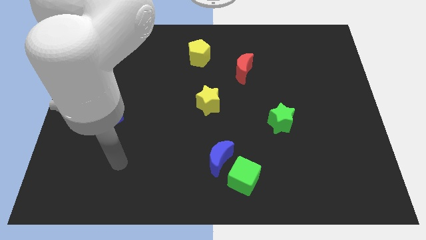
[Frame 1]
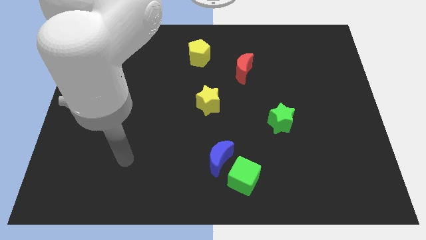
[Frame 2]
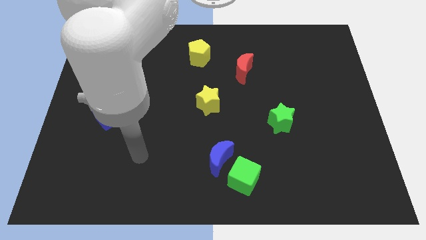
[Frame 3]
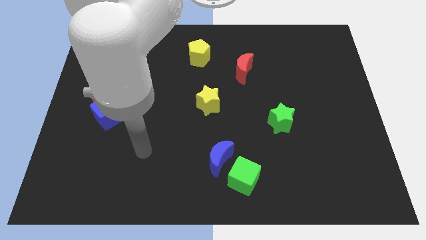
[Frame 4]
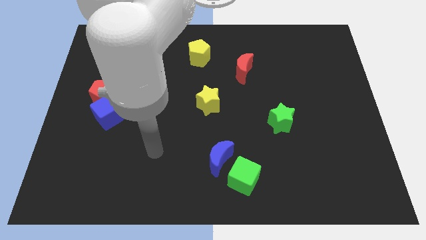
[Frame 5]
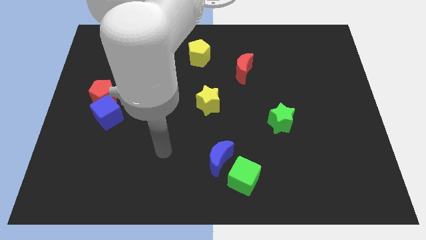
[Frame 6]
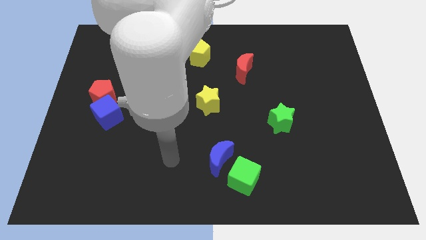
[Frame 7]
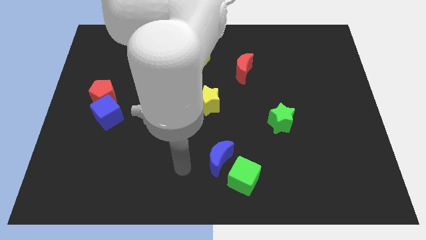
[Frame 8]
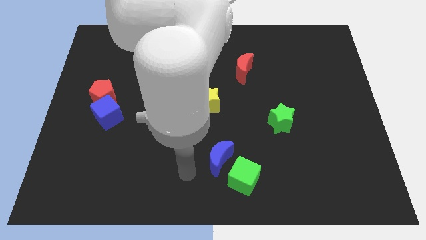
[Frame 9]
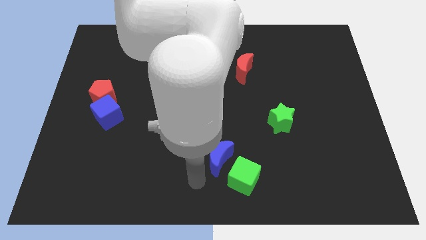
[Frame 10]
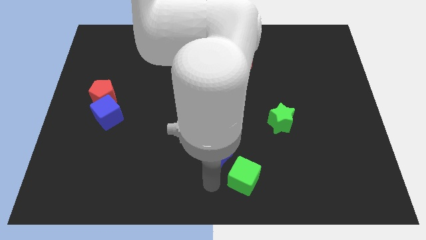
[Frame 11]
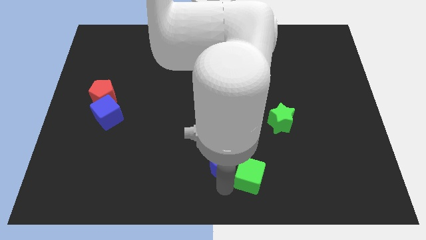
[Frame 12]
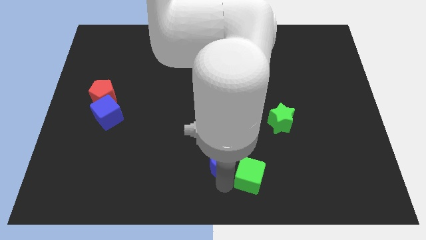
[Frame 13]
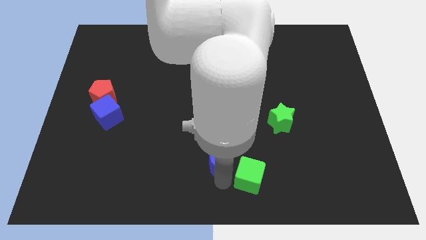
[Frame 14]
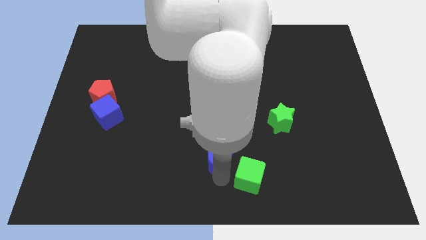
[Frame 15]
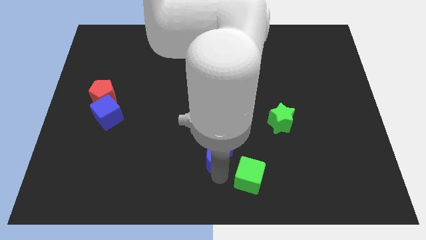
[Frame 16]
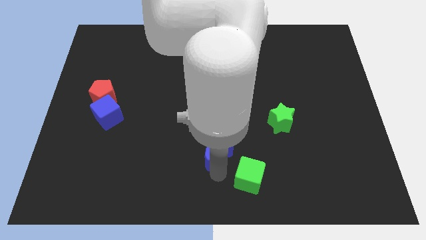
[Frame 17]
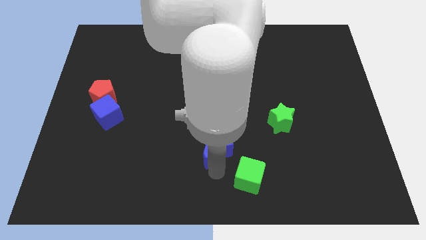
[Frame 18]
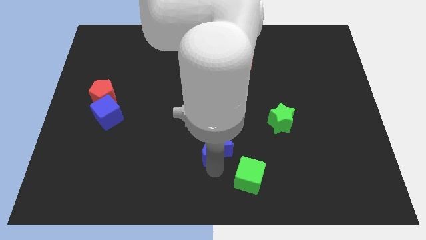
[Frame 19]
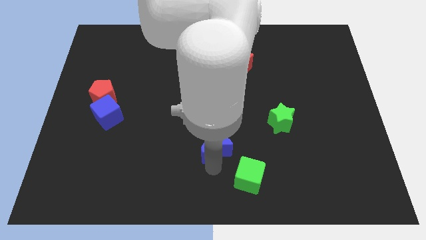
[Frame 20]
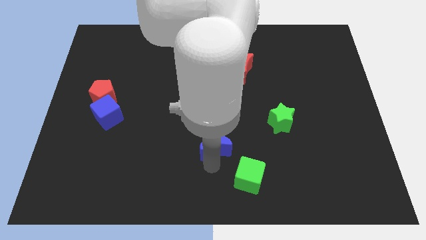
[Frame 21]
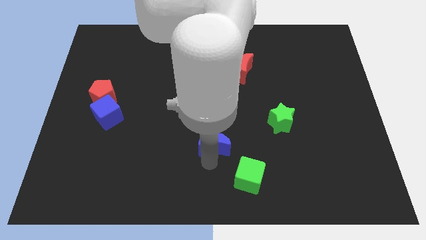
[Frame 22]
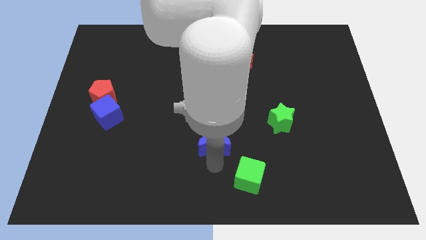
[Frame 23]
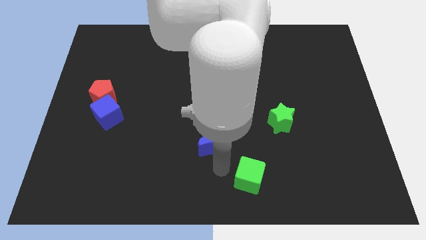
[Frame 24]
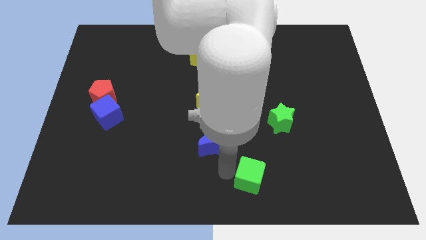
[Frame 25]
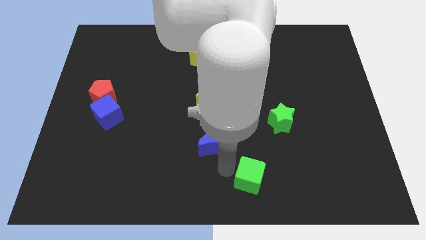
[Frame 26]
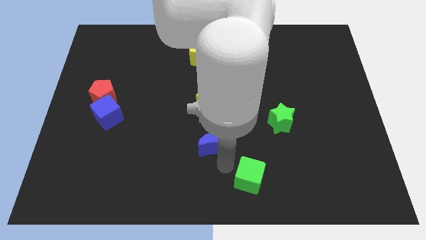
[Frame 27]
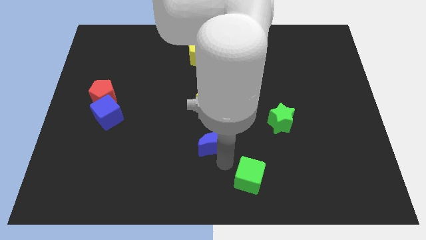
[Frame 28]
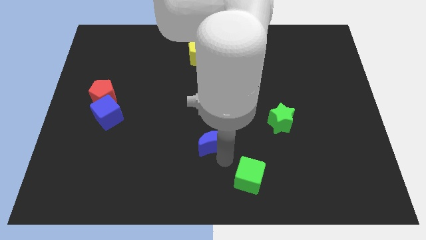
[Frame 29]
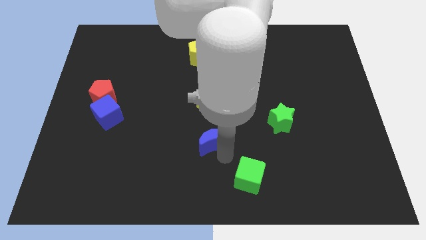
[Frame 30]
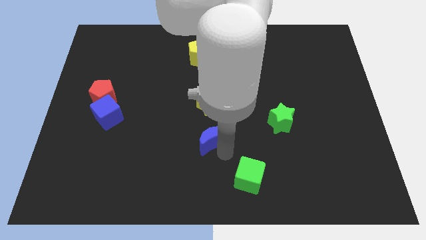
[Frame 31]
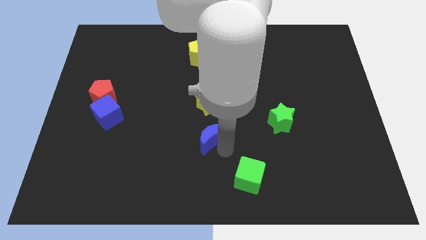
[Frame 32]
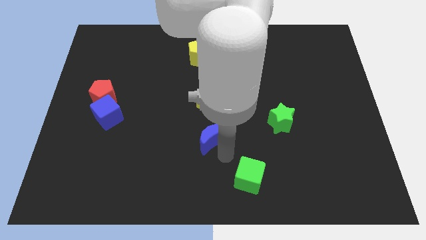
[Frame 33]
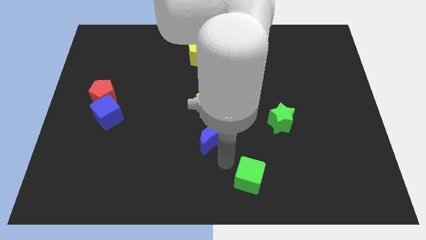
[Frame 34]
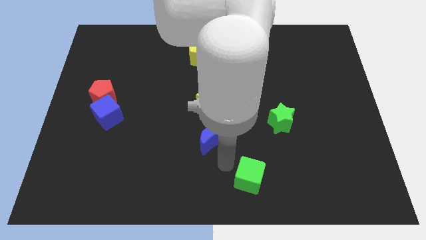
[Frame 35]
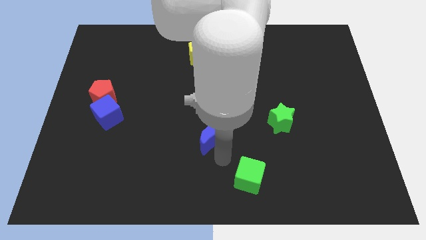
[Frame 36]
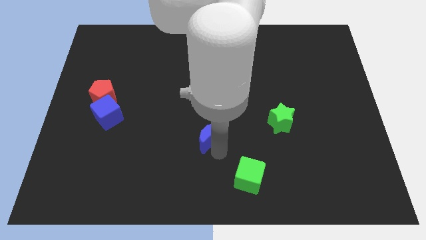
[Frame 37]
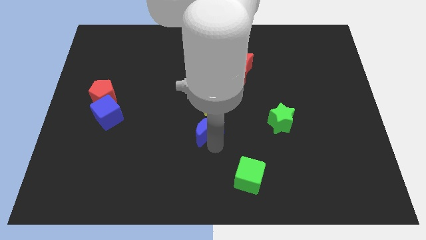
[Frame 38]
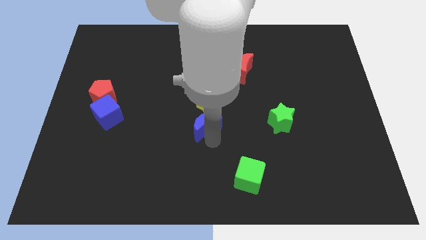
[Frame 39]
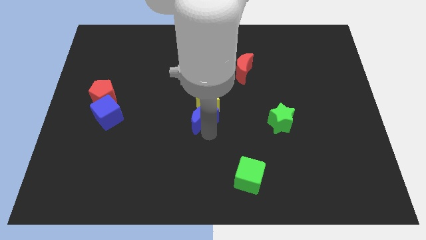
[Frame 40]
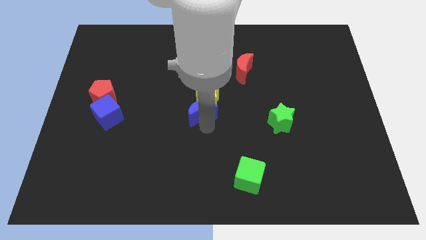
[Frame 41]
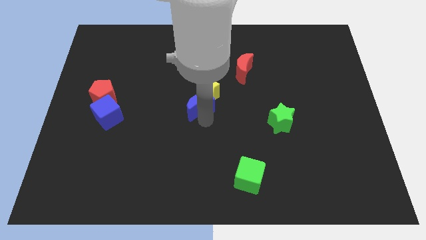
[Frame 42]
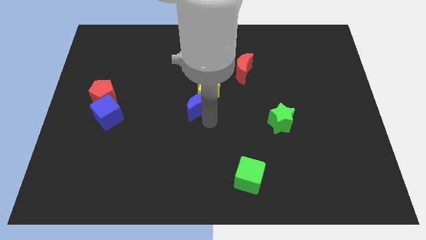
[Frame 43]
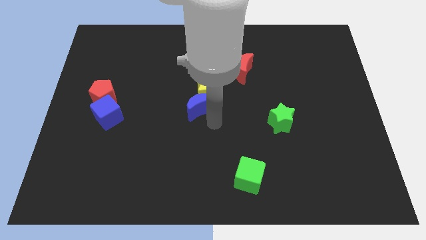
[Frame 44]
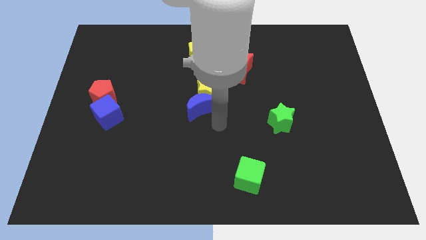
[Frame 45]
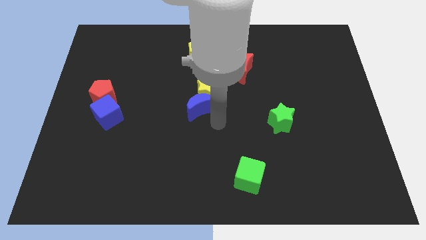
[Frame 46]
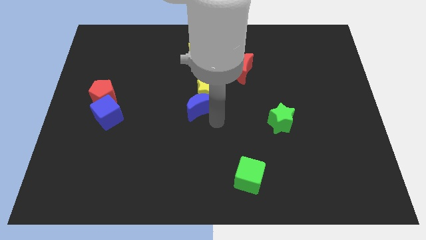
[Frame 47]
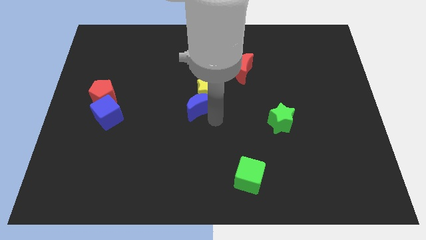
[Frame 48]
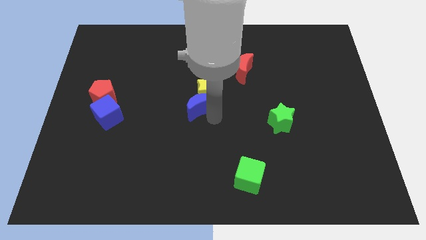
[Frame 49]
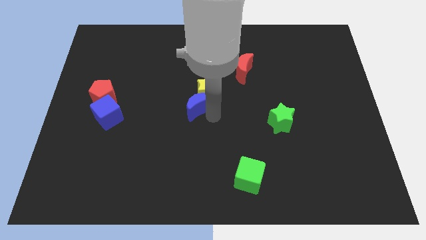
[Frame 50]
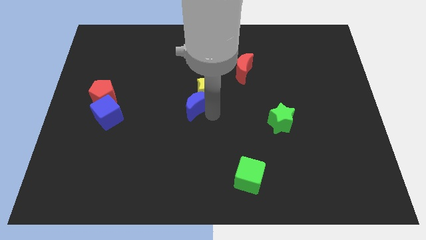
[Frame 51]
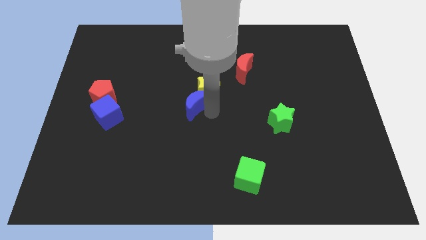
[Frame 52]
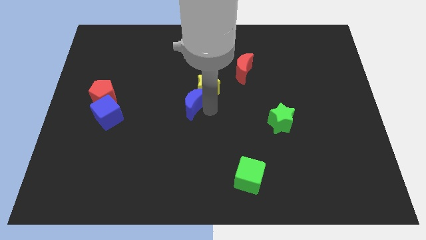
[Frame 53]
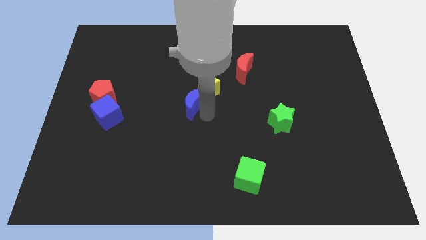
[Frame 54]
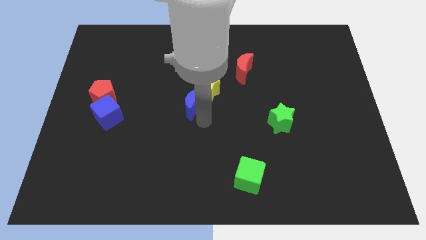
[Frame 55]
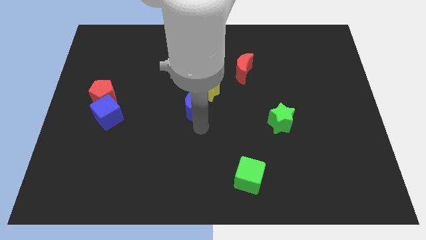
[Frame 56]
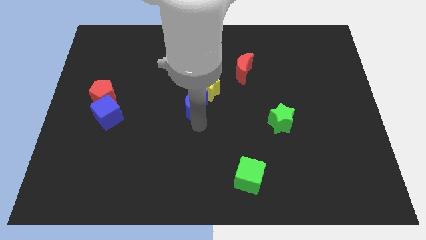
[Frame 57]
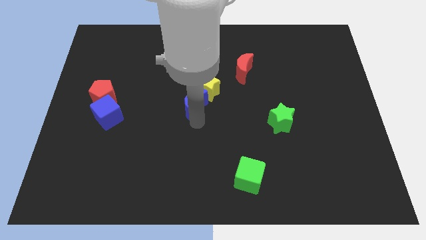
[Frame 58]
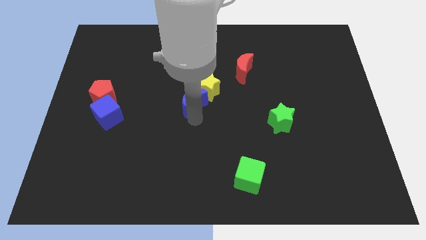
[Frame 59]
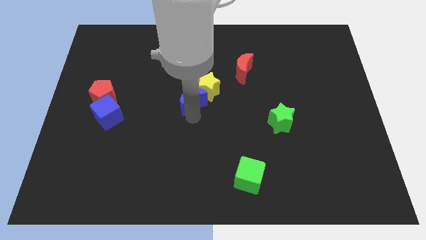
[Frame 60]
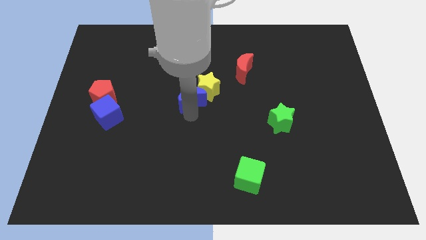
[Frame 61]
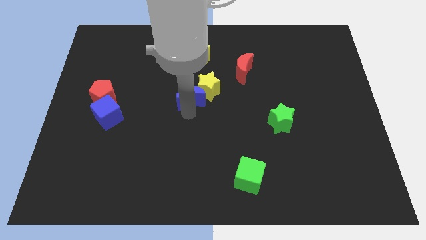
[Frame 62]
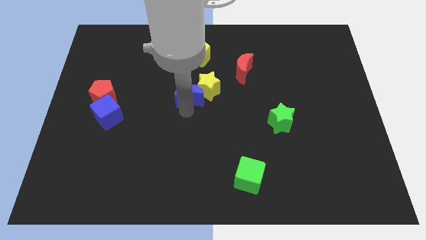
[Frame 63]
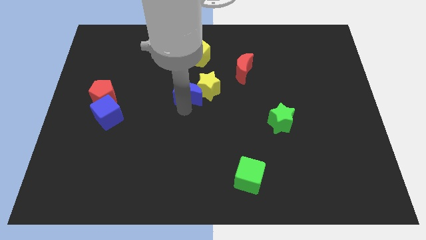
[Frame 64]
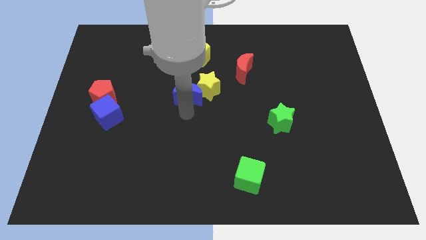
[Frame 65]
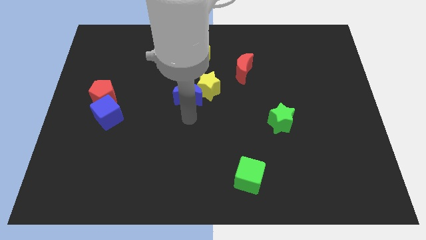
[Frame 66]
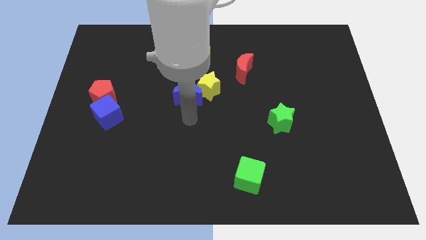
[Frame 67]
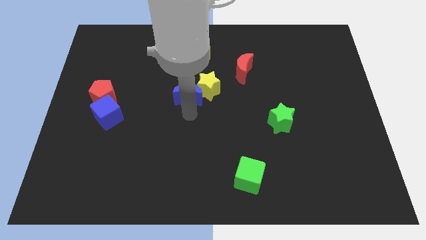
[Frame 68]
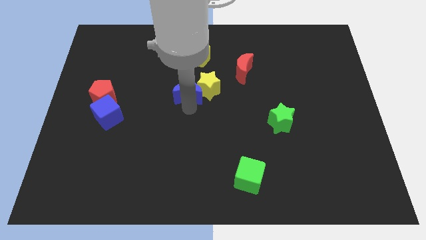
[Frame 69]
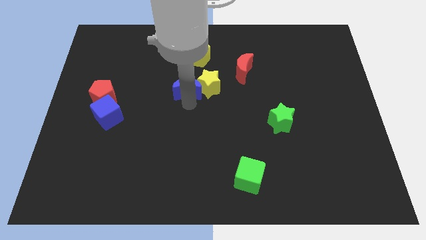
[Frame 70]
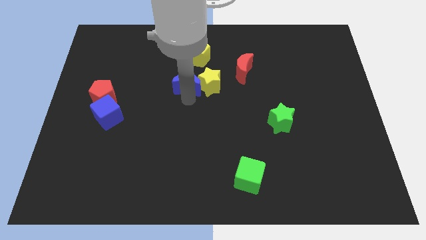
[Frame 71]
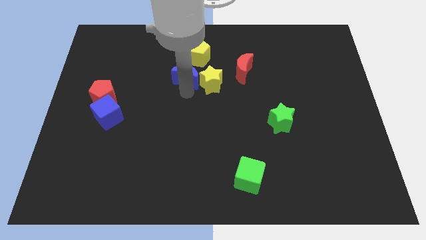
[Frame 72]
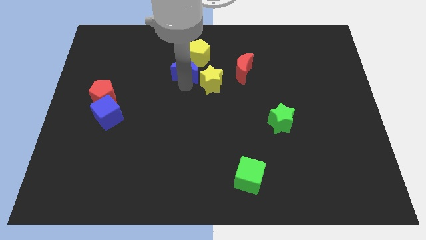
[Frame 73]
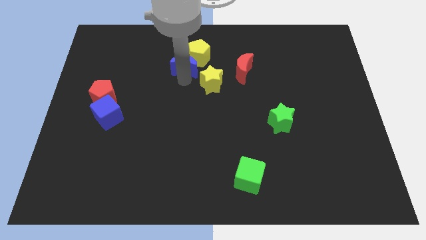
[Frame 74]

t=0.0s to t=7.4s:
push the blue moon close to the yellow pentagon
